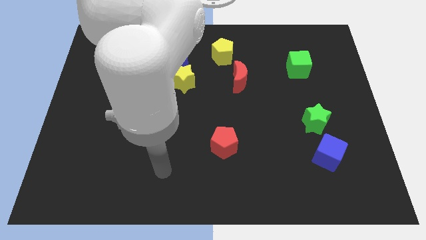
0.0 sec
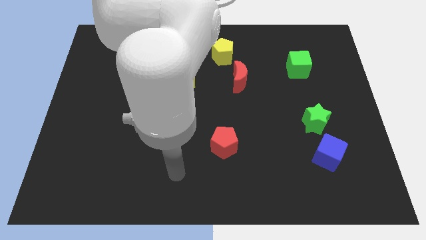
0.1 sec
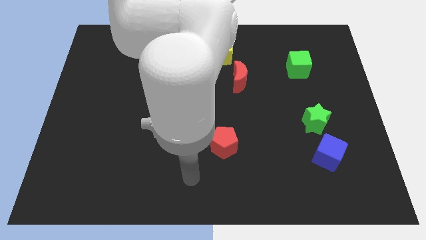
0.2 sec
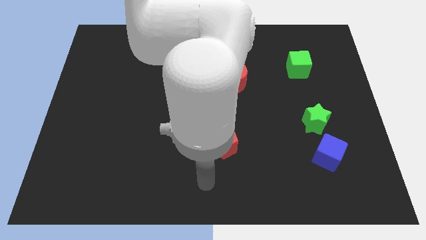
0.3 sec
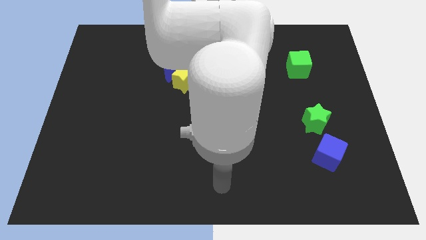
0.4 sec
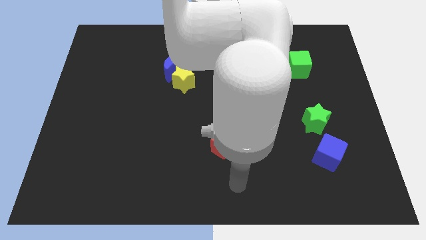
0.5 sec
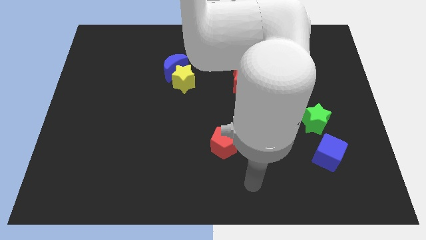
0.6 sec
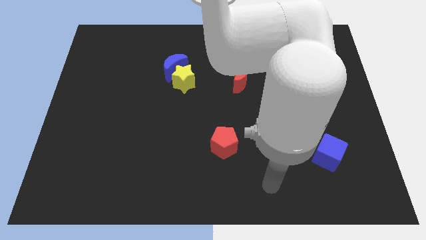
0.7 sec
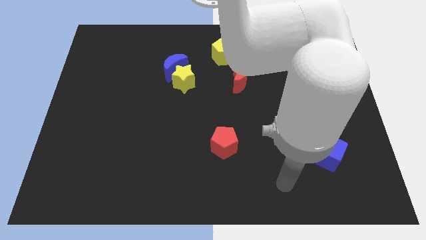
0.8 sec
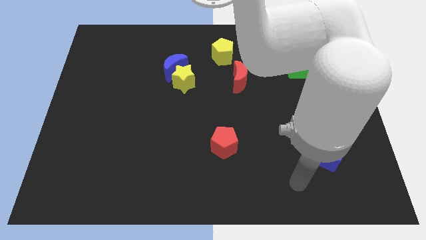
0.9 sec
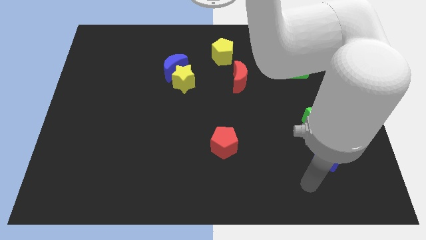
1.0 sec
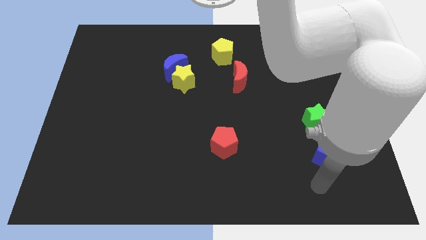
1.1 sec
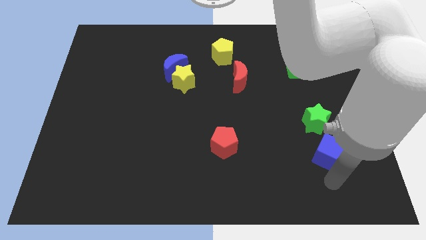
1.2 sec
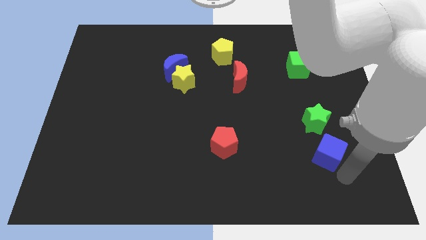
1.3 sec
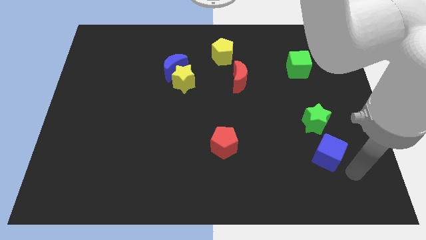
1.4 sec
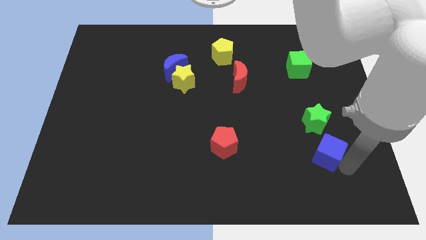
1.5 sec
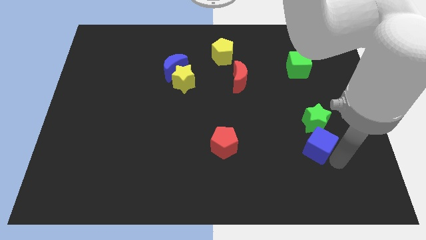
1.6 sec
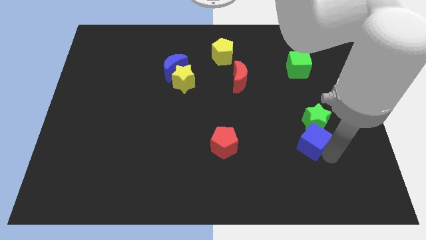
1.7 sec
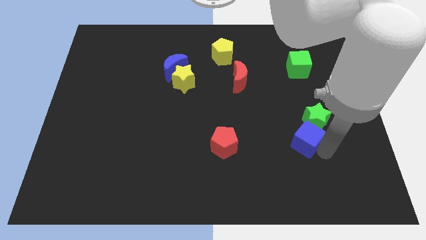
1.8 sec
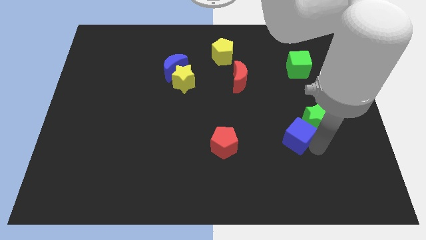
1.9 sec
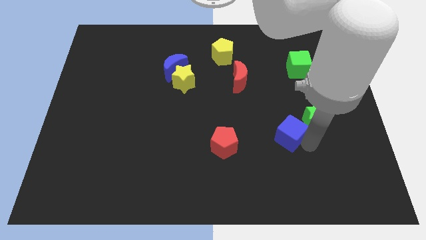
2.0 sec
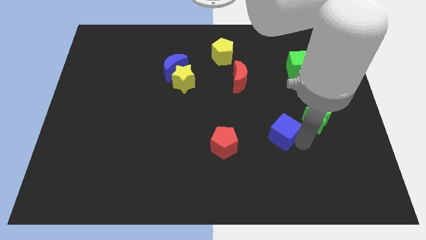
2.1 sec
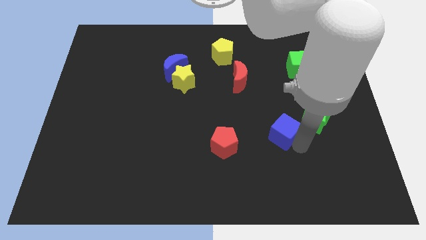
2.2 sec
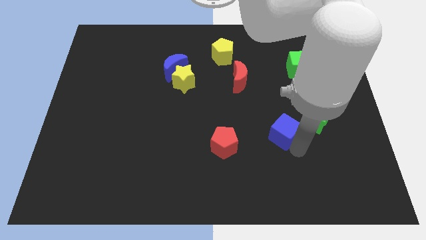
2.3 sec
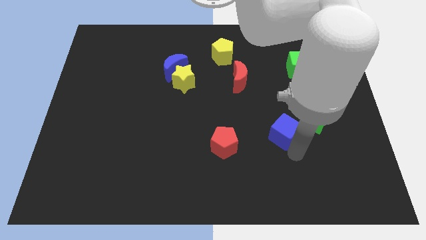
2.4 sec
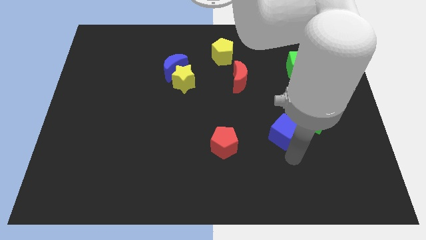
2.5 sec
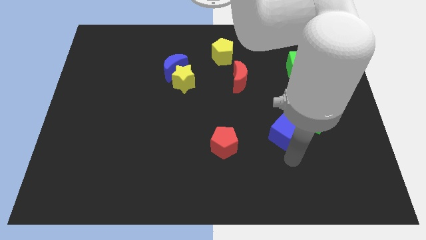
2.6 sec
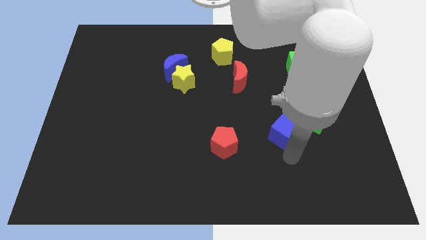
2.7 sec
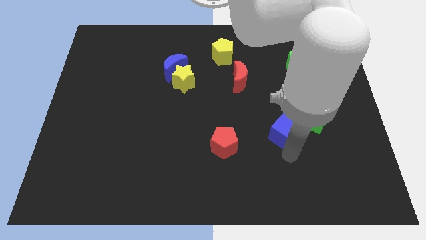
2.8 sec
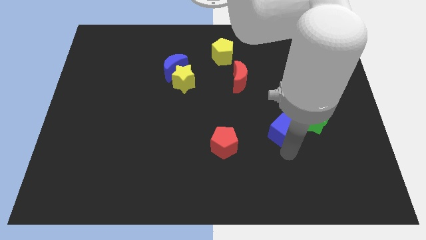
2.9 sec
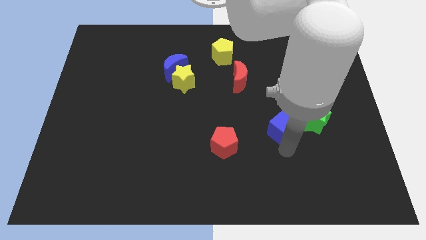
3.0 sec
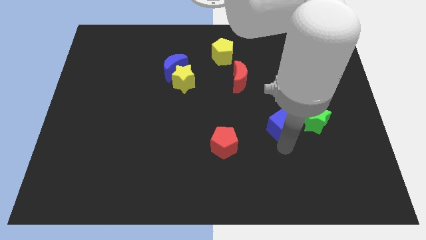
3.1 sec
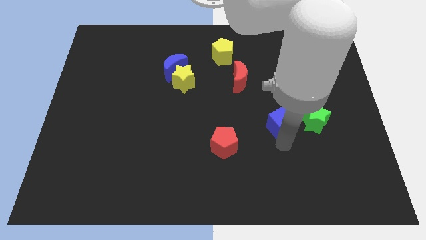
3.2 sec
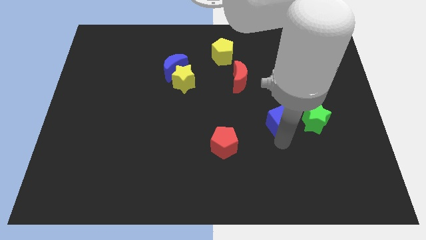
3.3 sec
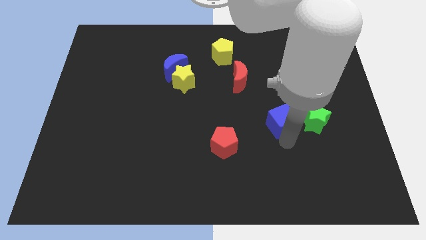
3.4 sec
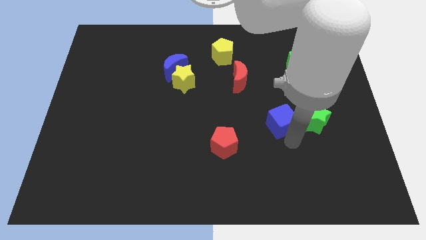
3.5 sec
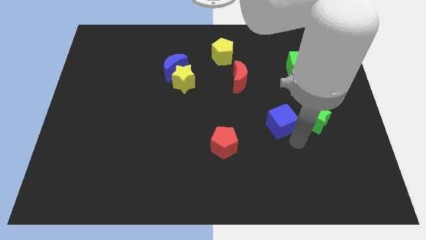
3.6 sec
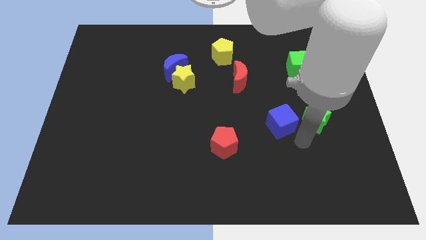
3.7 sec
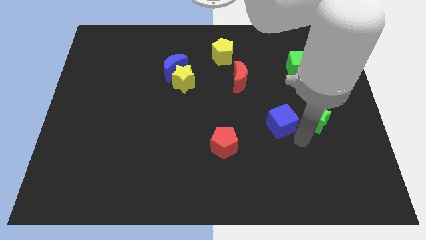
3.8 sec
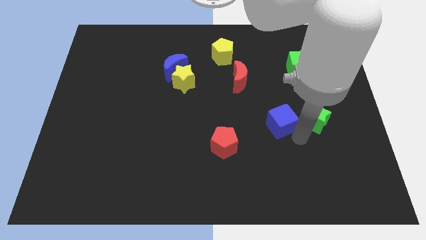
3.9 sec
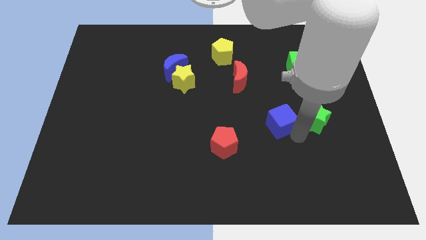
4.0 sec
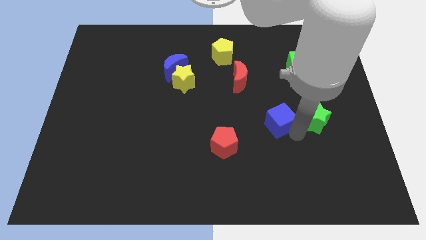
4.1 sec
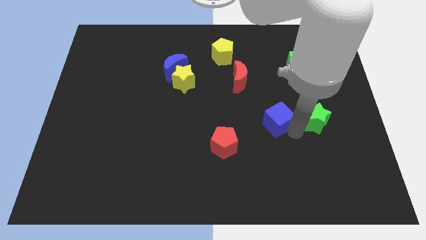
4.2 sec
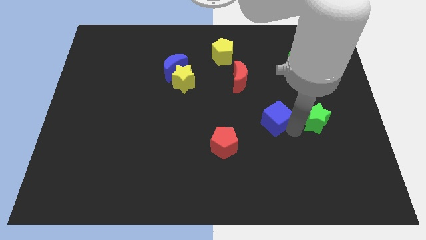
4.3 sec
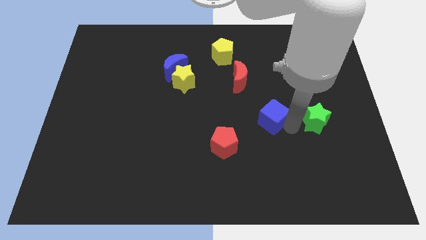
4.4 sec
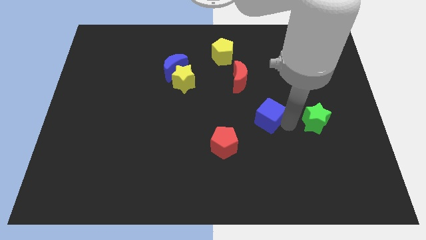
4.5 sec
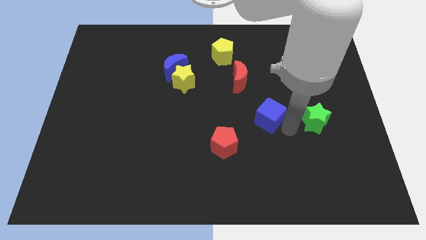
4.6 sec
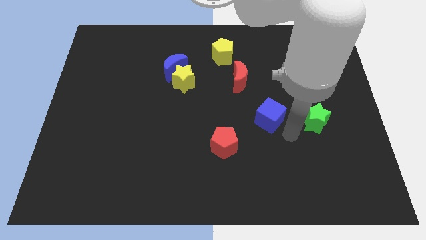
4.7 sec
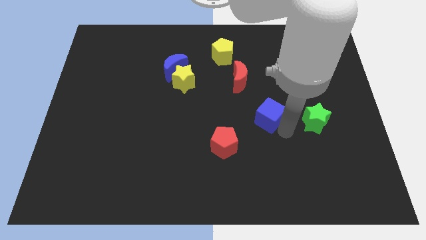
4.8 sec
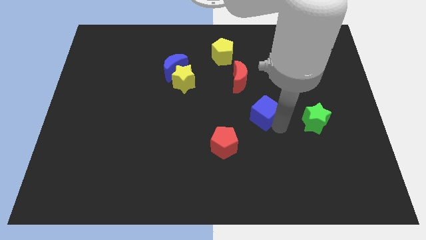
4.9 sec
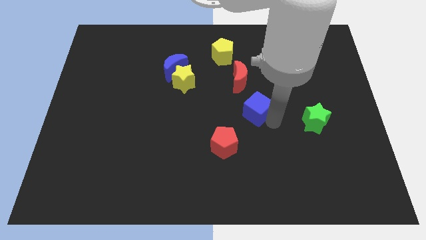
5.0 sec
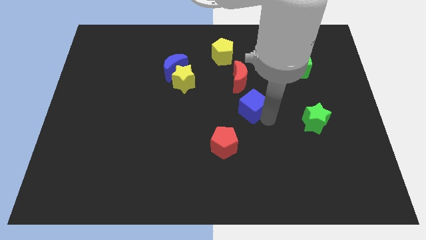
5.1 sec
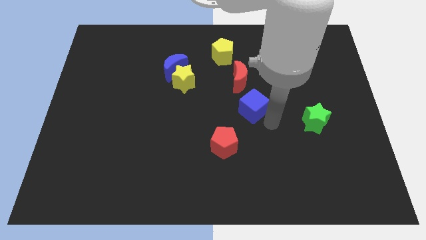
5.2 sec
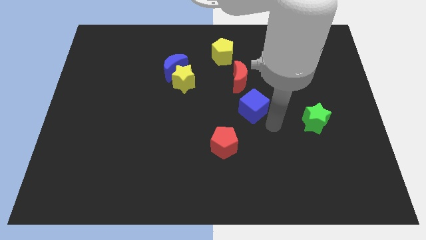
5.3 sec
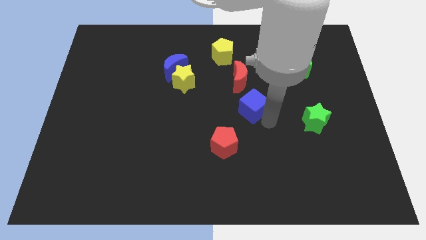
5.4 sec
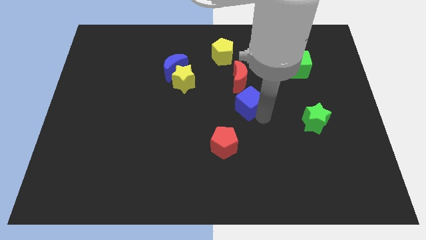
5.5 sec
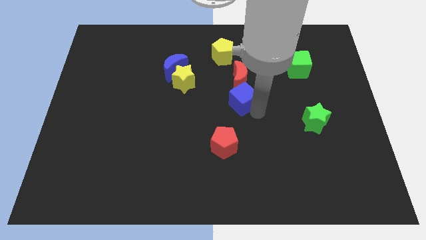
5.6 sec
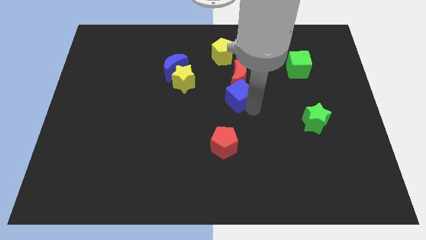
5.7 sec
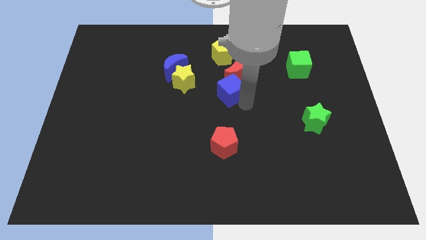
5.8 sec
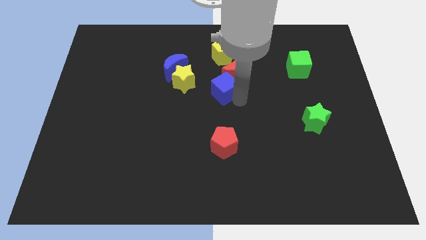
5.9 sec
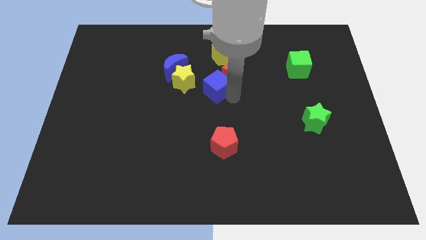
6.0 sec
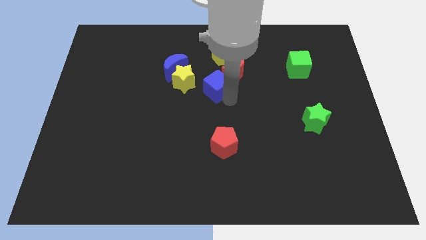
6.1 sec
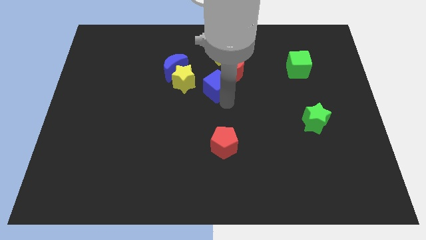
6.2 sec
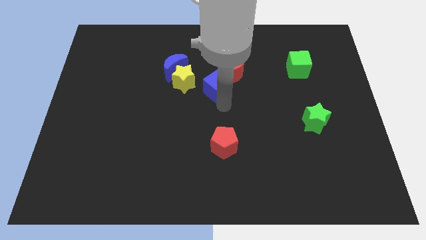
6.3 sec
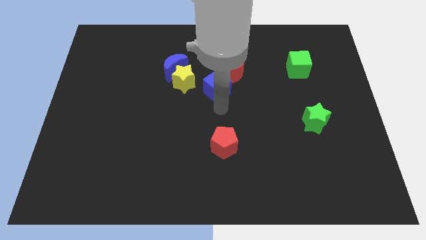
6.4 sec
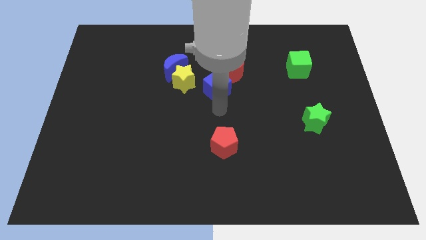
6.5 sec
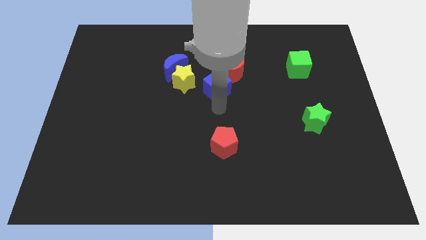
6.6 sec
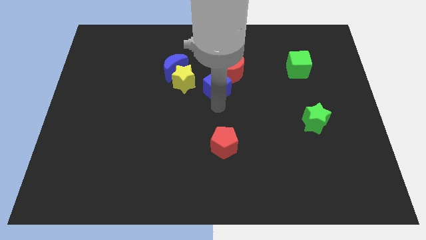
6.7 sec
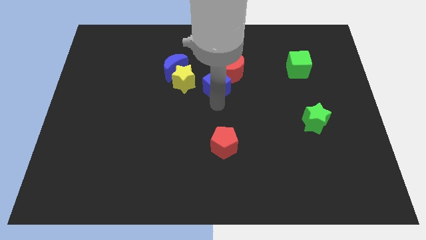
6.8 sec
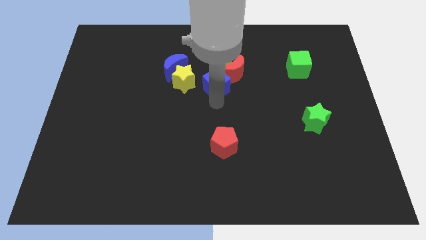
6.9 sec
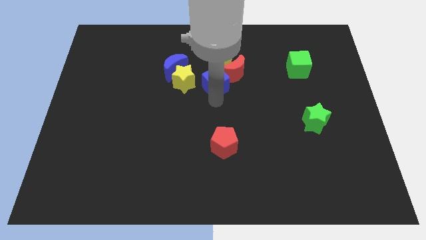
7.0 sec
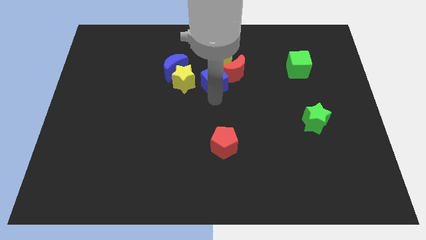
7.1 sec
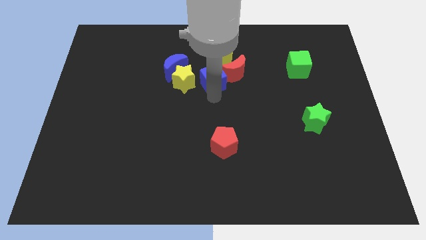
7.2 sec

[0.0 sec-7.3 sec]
move the blue cube to the top right of the yellow star
